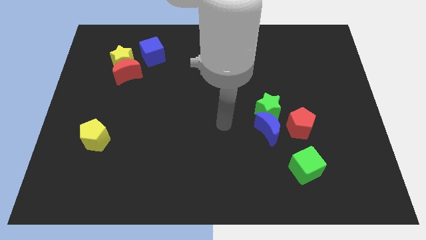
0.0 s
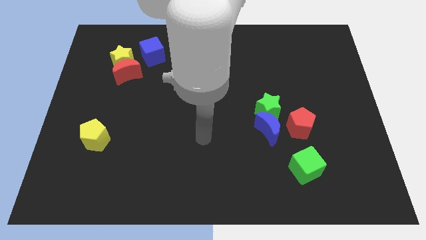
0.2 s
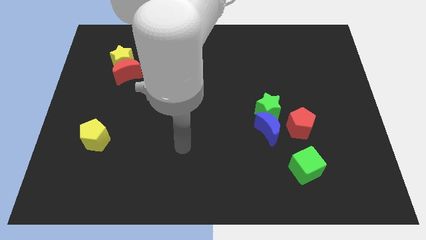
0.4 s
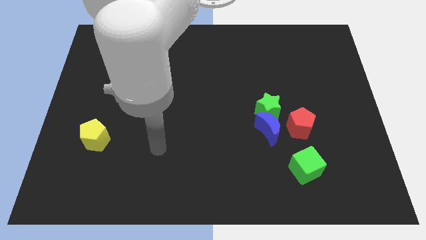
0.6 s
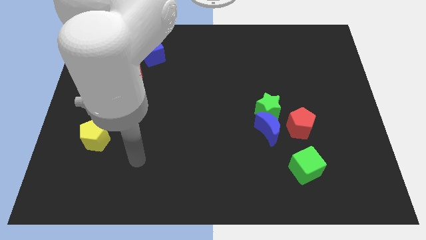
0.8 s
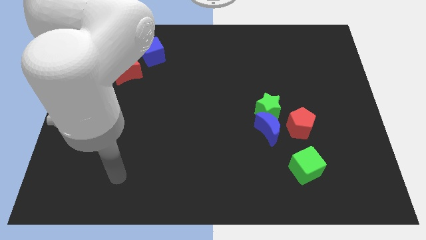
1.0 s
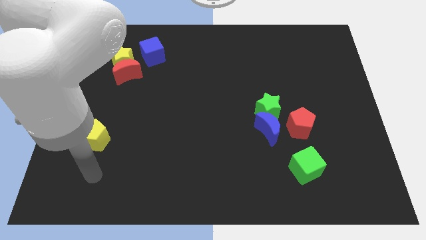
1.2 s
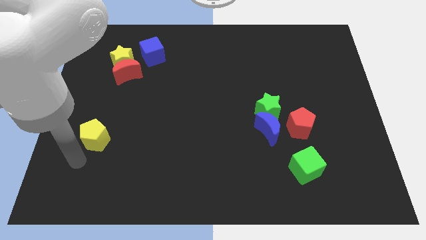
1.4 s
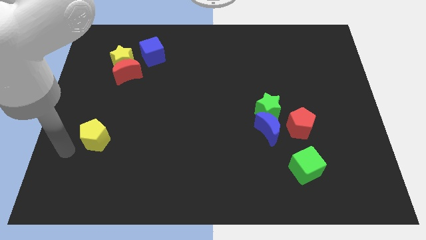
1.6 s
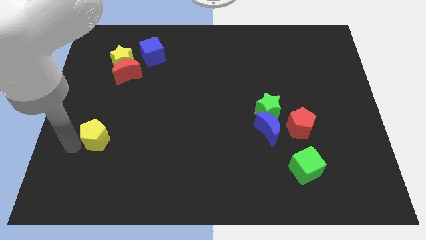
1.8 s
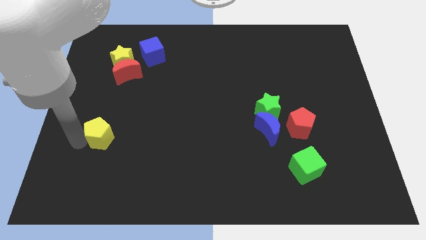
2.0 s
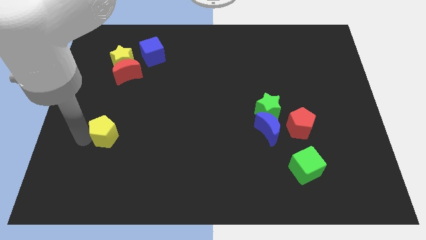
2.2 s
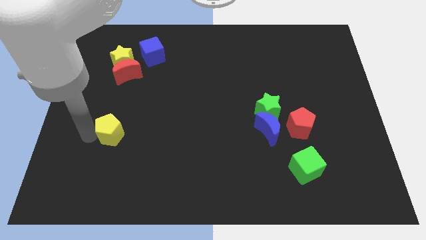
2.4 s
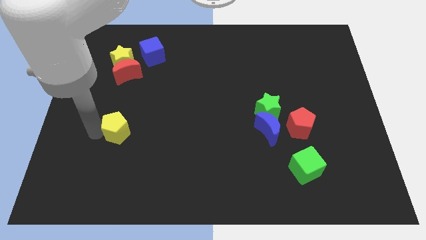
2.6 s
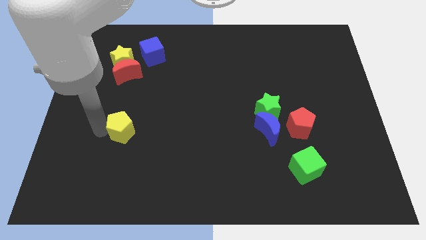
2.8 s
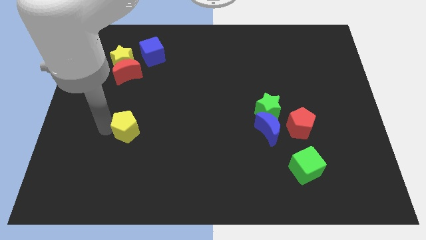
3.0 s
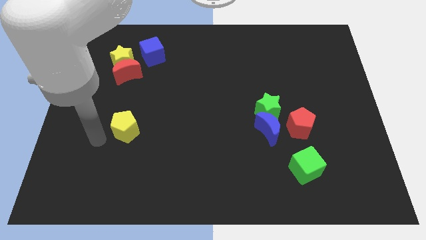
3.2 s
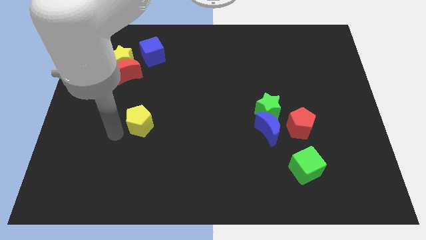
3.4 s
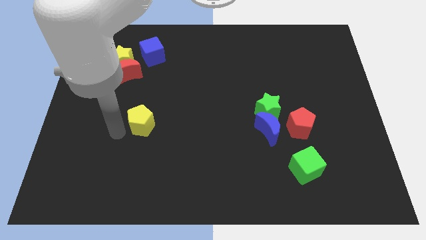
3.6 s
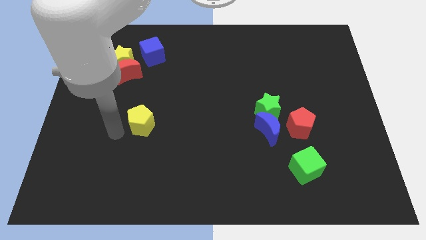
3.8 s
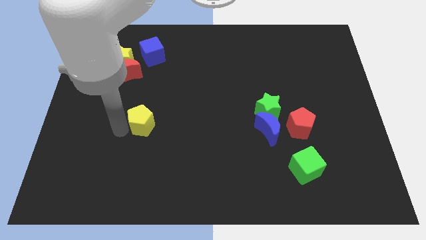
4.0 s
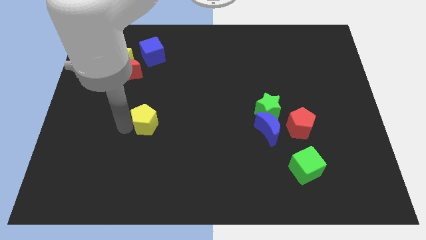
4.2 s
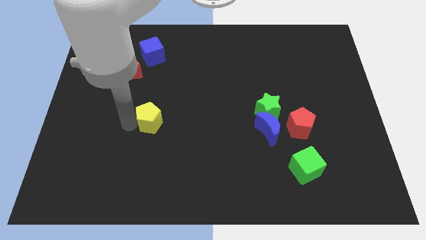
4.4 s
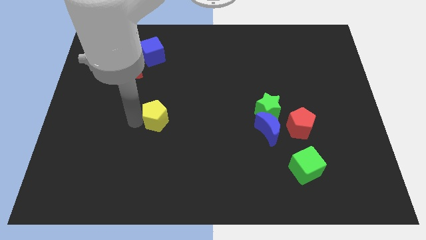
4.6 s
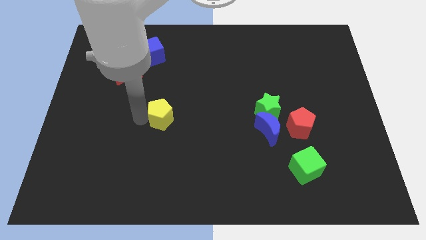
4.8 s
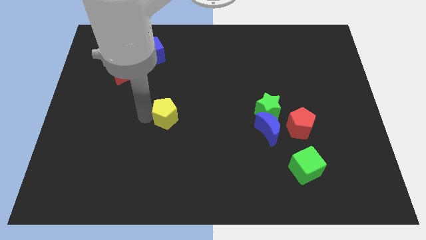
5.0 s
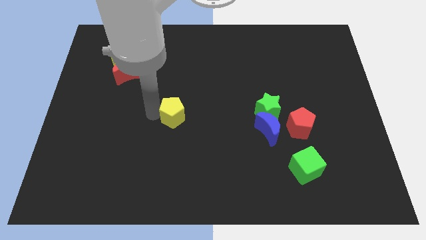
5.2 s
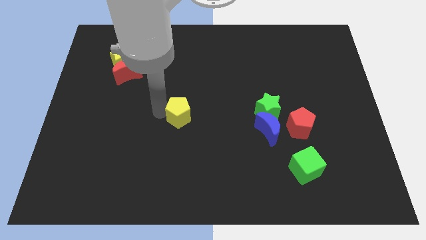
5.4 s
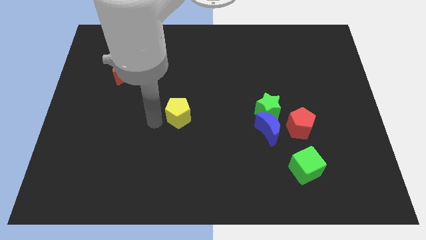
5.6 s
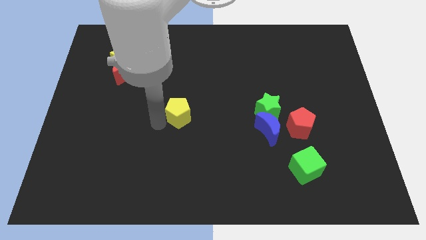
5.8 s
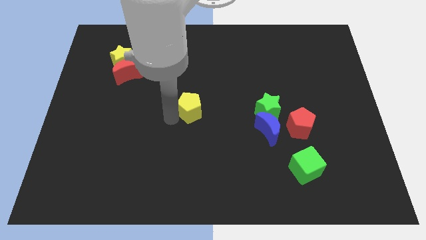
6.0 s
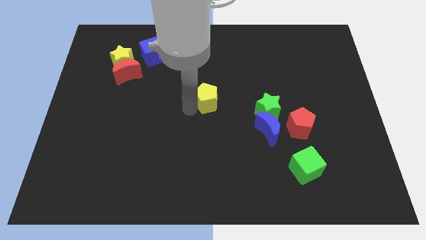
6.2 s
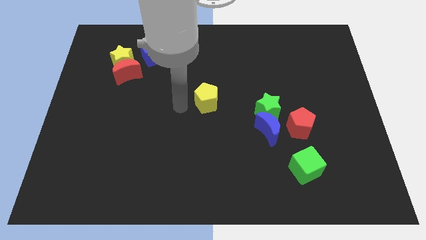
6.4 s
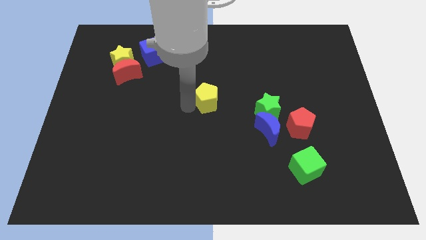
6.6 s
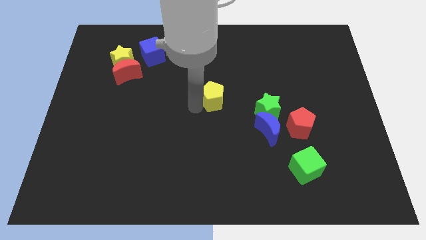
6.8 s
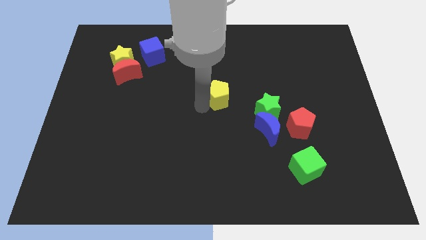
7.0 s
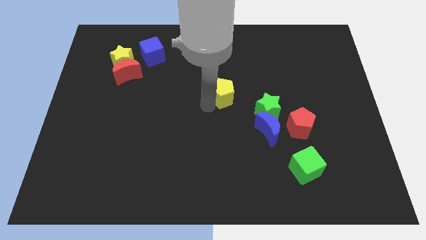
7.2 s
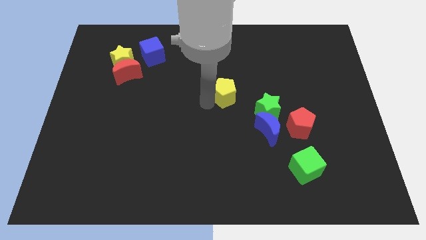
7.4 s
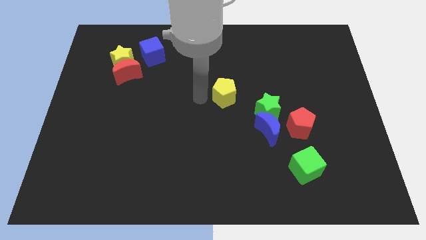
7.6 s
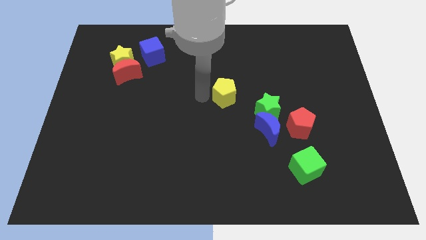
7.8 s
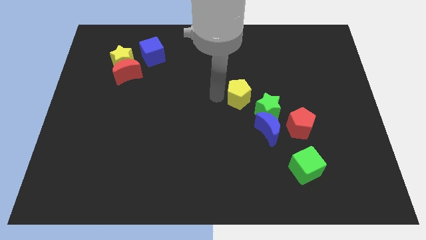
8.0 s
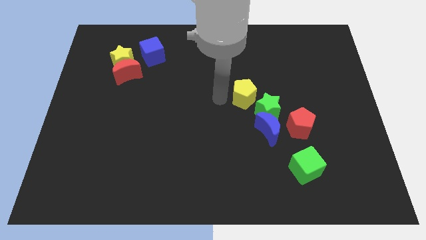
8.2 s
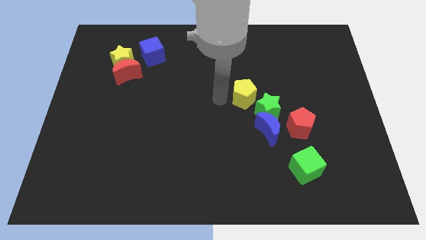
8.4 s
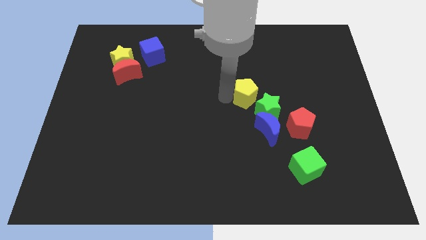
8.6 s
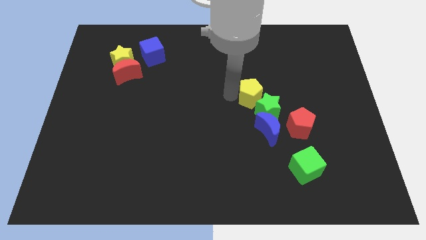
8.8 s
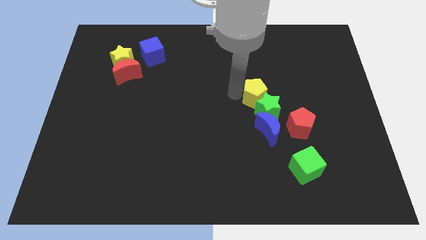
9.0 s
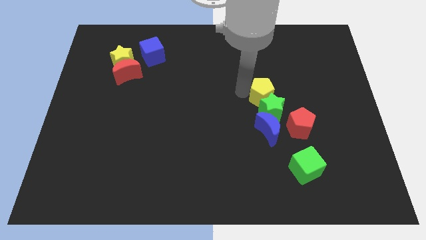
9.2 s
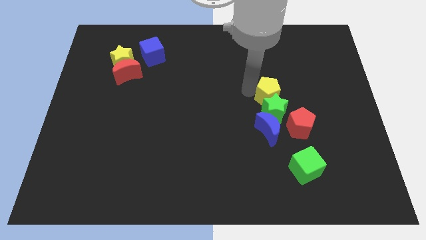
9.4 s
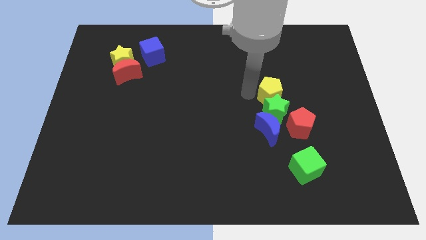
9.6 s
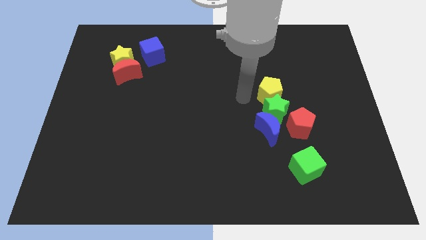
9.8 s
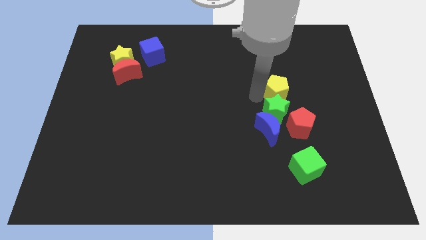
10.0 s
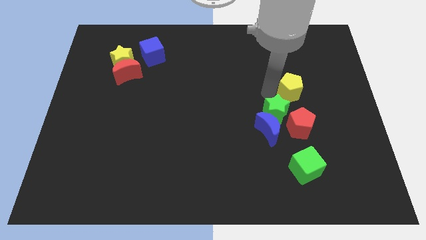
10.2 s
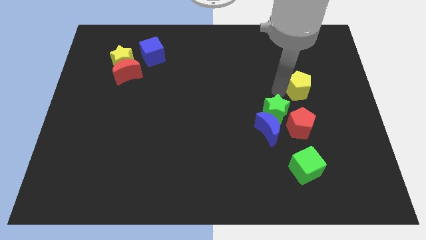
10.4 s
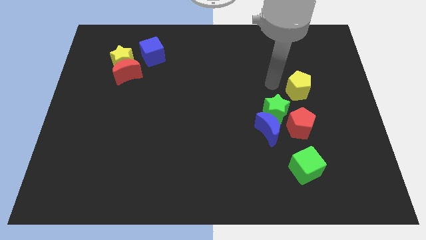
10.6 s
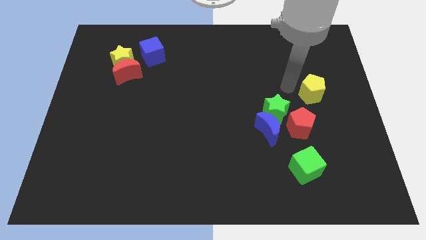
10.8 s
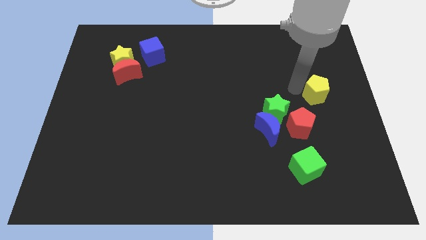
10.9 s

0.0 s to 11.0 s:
move the yellow pentagon to the center right

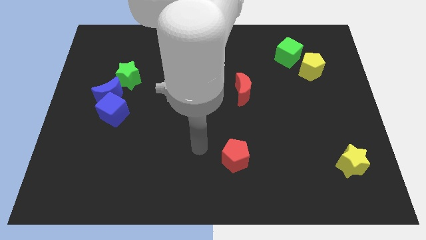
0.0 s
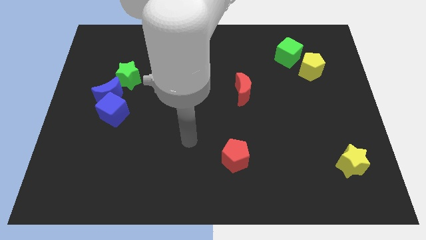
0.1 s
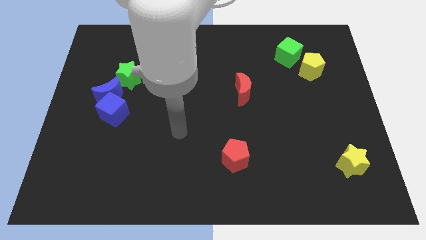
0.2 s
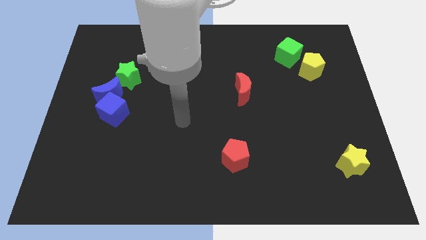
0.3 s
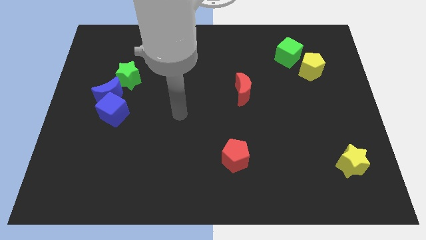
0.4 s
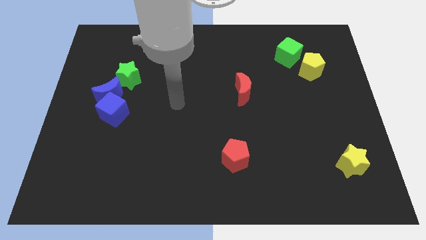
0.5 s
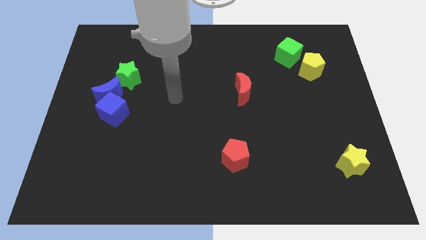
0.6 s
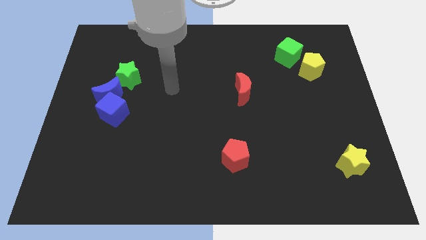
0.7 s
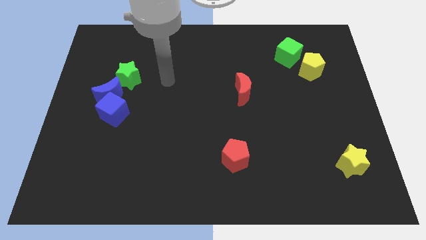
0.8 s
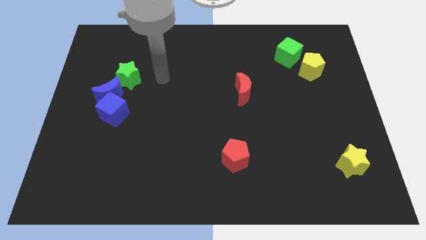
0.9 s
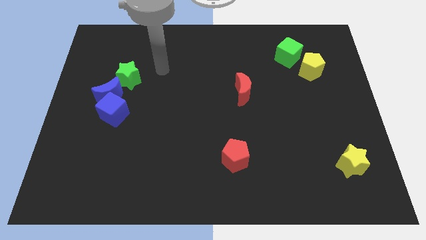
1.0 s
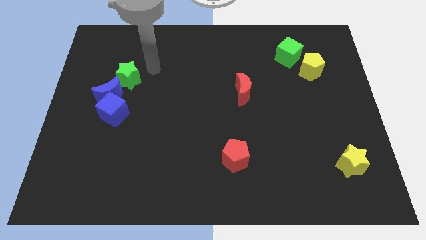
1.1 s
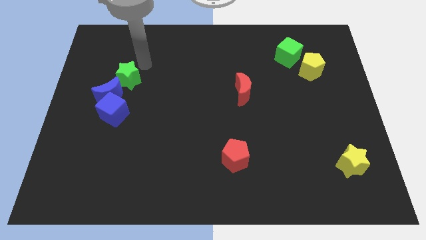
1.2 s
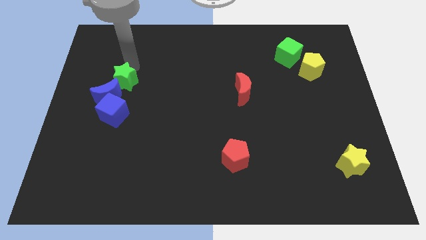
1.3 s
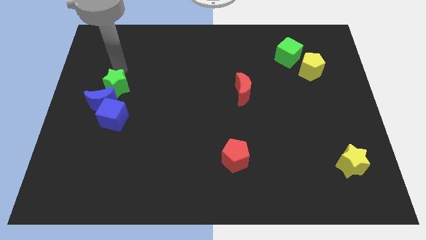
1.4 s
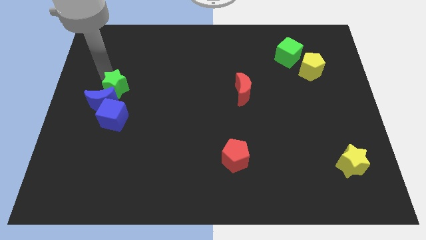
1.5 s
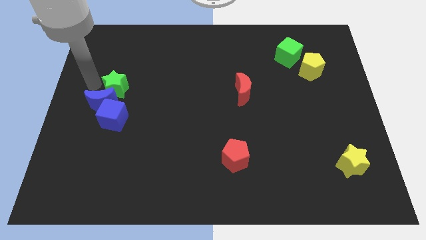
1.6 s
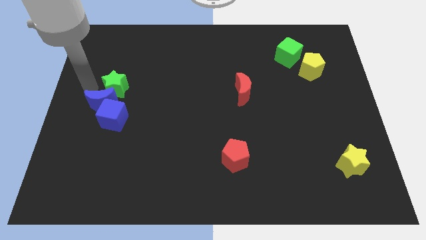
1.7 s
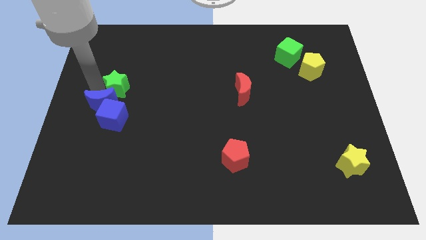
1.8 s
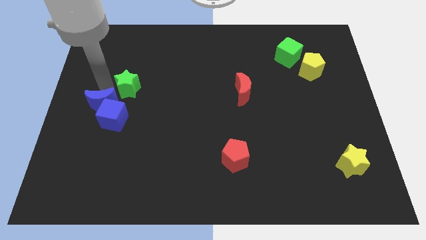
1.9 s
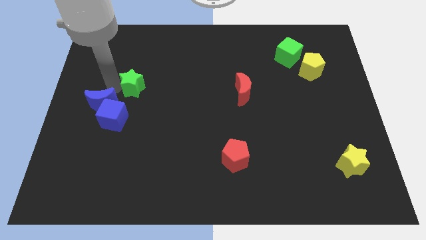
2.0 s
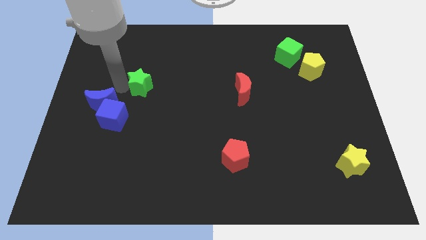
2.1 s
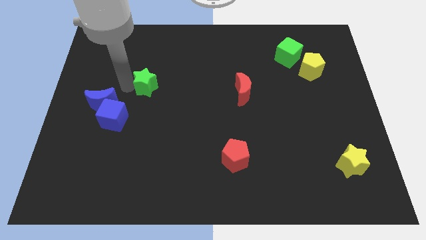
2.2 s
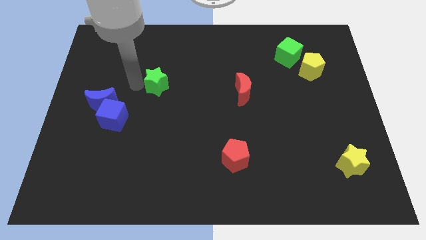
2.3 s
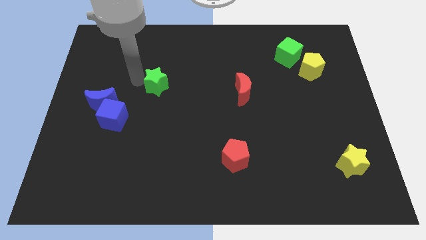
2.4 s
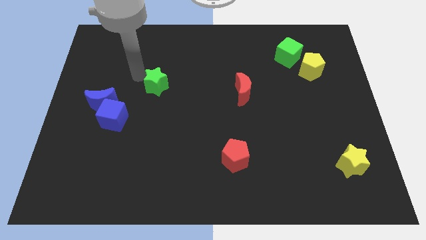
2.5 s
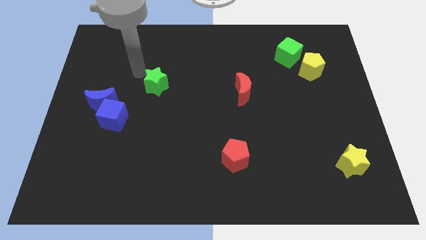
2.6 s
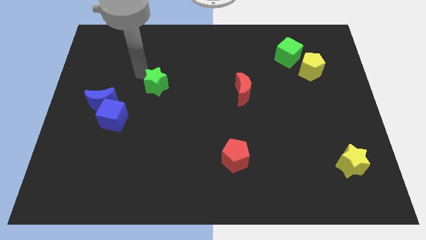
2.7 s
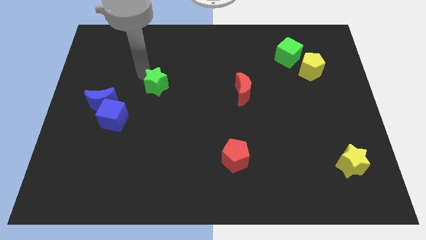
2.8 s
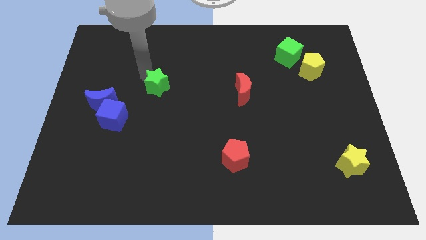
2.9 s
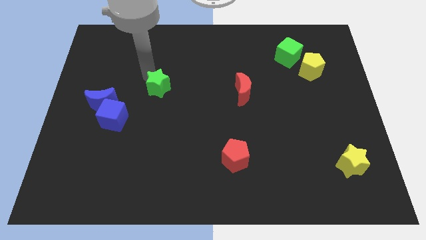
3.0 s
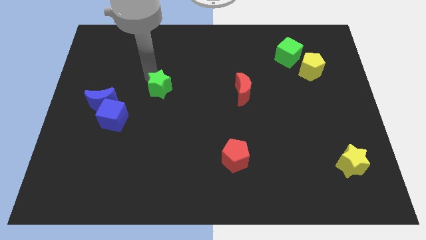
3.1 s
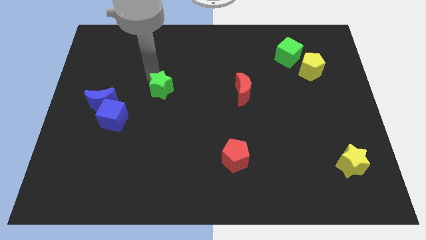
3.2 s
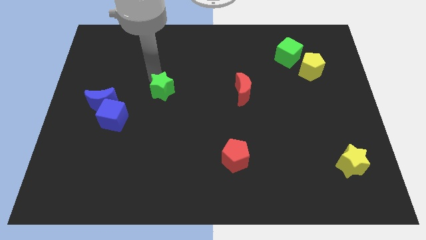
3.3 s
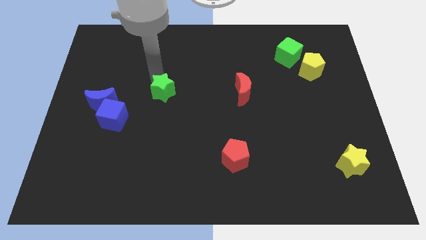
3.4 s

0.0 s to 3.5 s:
slide the green star to the middle of the board
